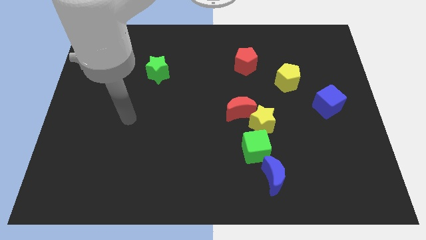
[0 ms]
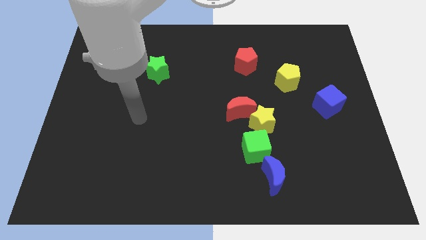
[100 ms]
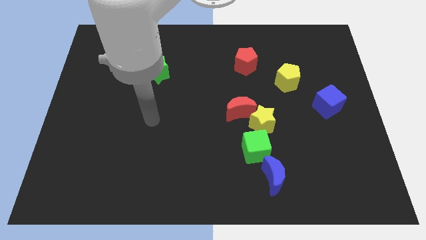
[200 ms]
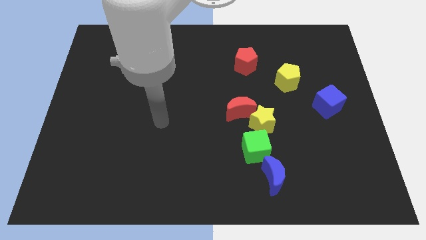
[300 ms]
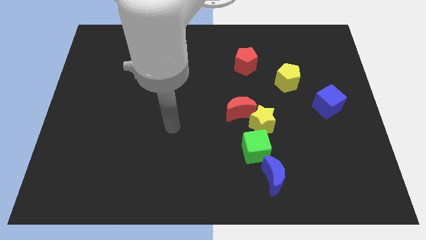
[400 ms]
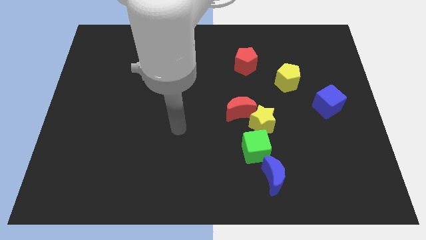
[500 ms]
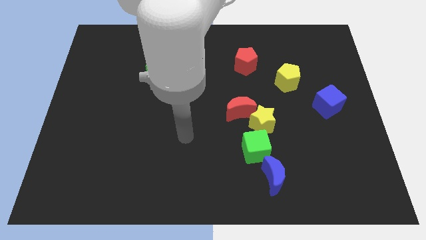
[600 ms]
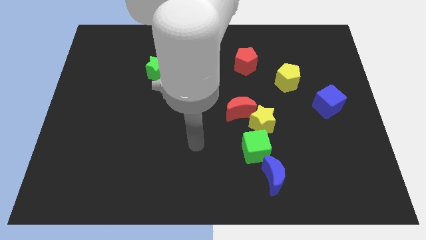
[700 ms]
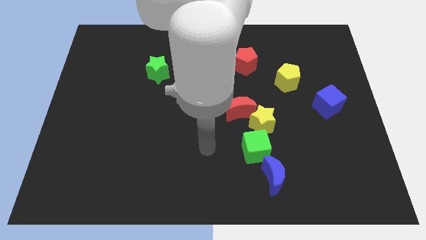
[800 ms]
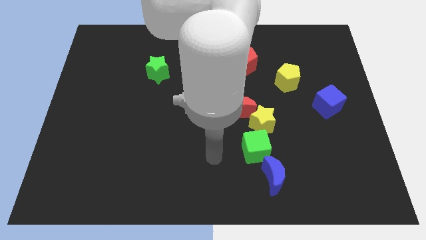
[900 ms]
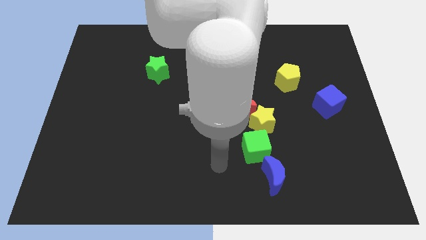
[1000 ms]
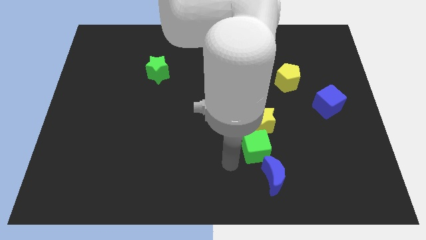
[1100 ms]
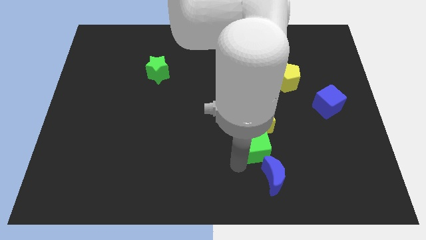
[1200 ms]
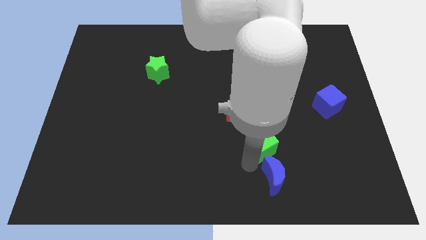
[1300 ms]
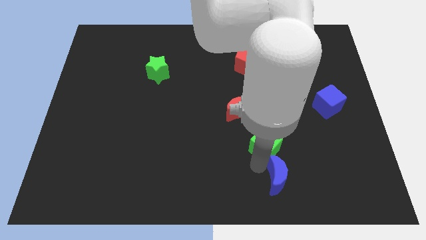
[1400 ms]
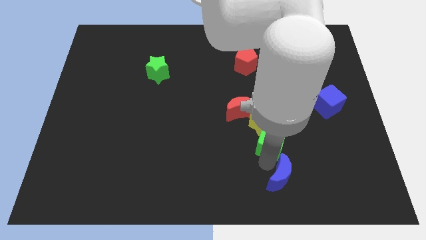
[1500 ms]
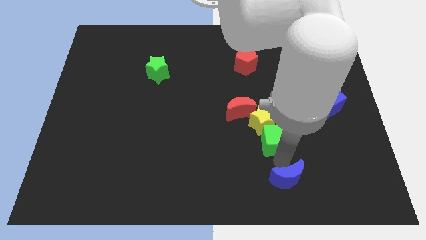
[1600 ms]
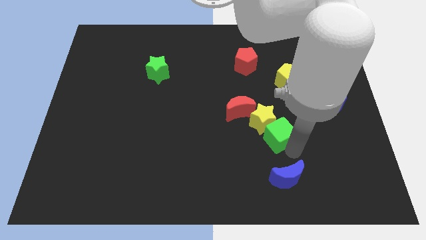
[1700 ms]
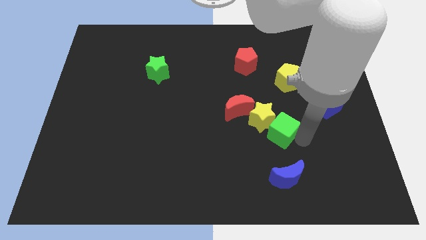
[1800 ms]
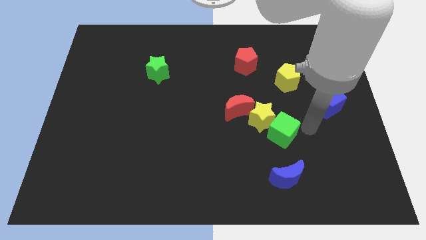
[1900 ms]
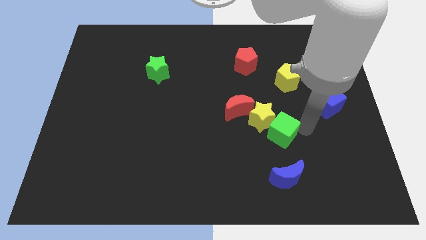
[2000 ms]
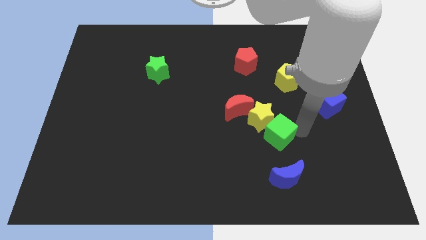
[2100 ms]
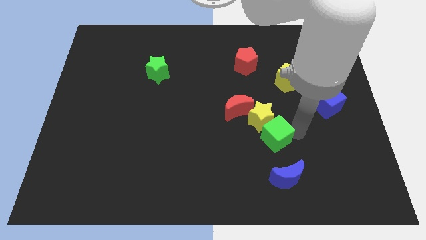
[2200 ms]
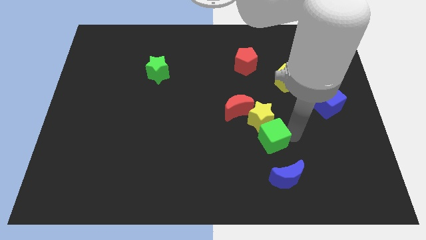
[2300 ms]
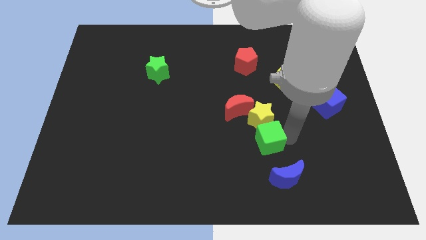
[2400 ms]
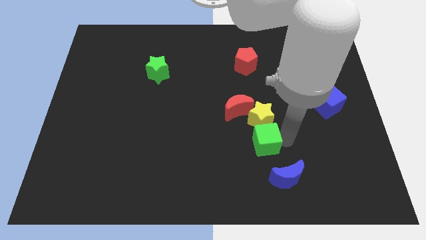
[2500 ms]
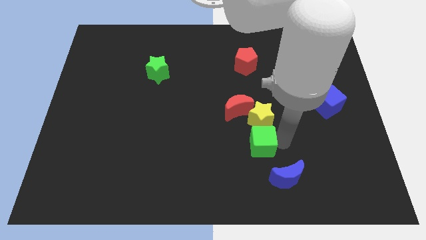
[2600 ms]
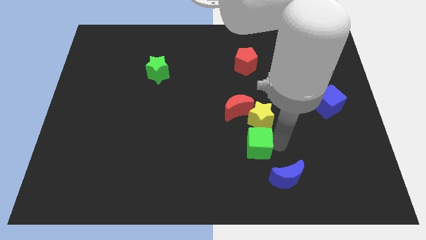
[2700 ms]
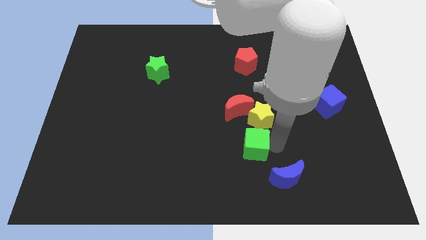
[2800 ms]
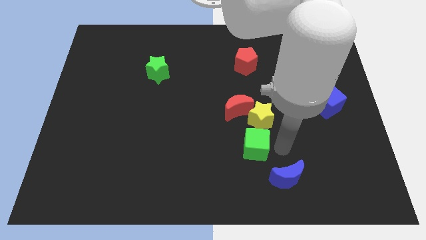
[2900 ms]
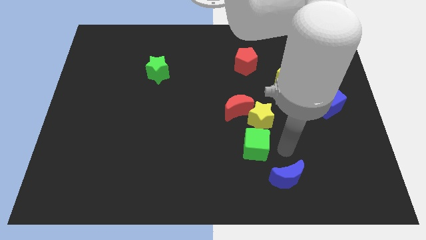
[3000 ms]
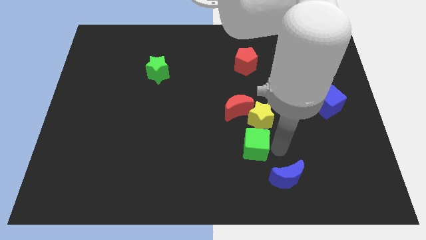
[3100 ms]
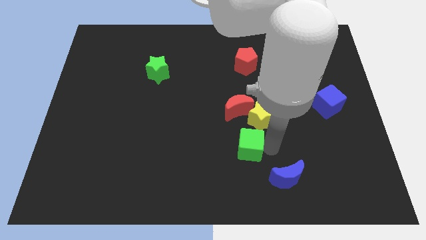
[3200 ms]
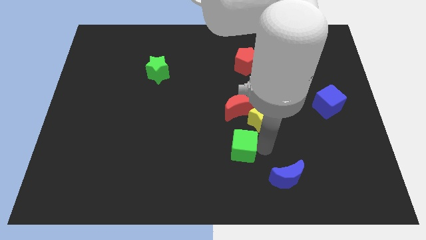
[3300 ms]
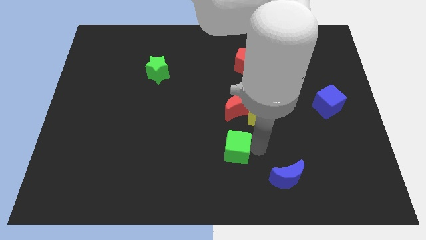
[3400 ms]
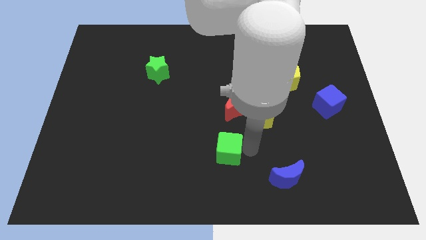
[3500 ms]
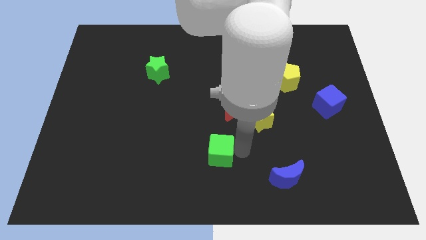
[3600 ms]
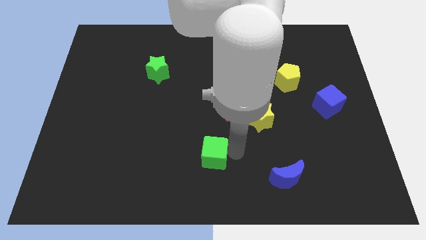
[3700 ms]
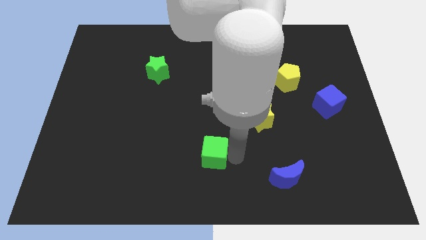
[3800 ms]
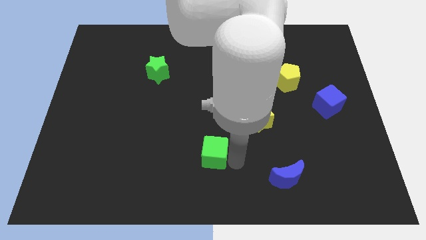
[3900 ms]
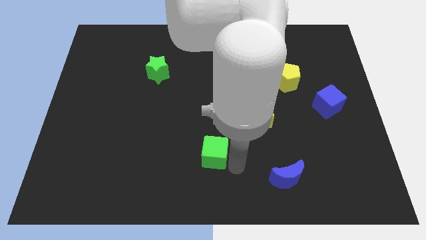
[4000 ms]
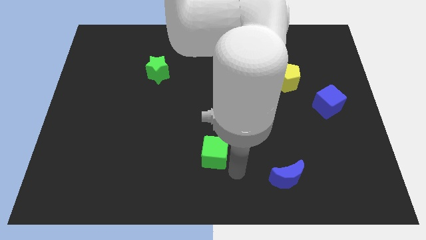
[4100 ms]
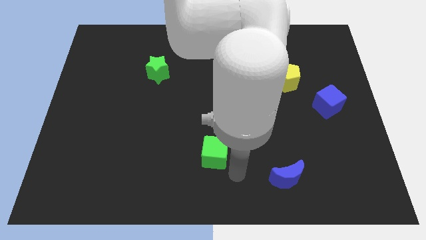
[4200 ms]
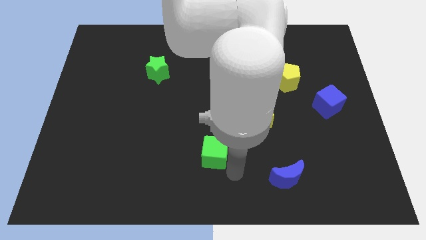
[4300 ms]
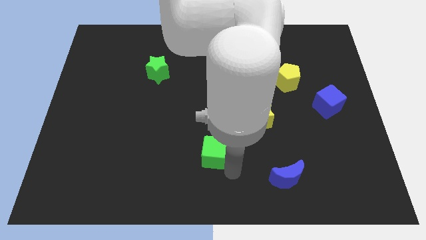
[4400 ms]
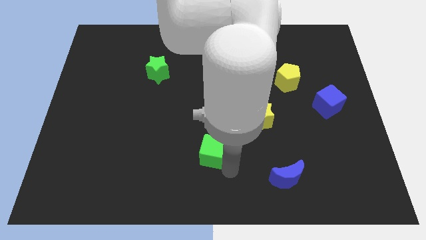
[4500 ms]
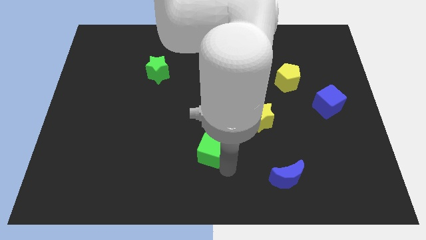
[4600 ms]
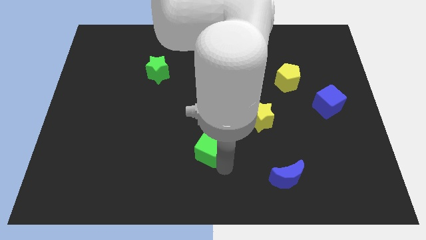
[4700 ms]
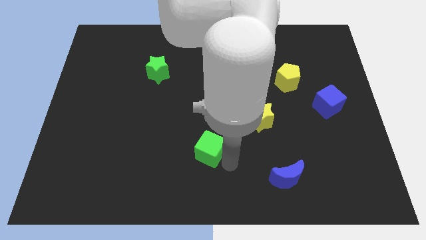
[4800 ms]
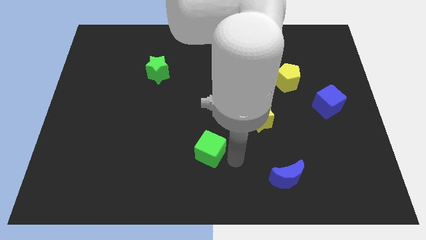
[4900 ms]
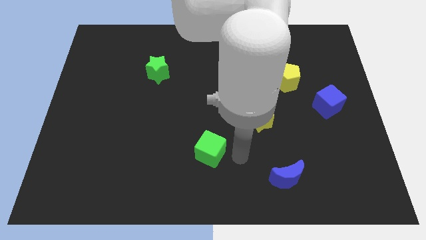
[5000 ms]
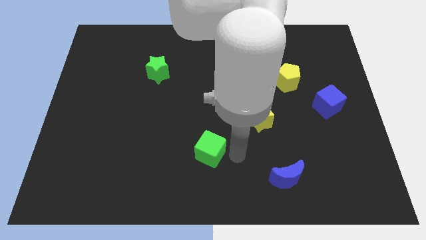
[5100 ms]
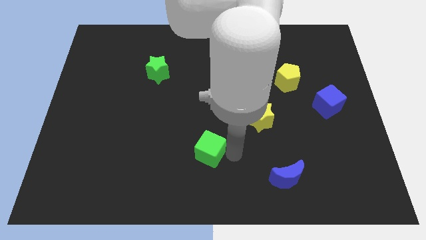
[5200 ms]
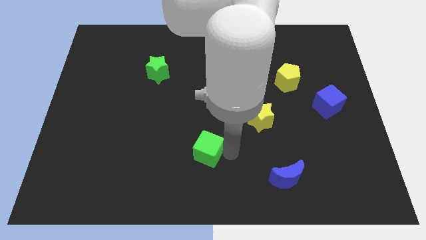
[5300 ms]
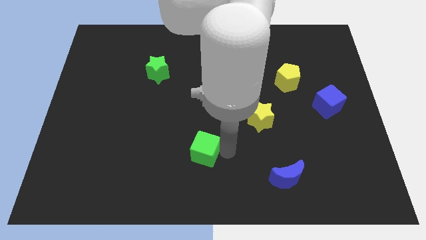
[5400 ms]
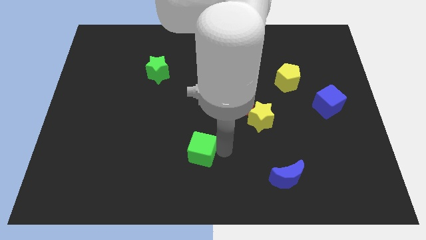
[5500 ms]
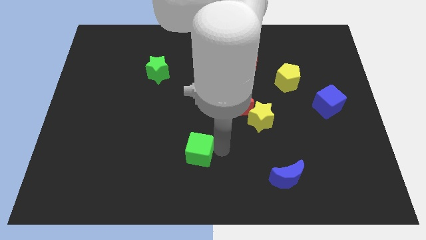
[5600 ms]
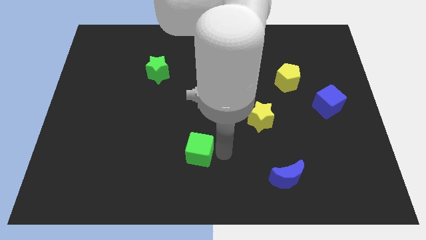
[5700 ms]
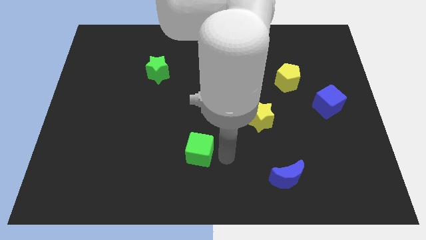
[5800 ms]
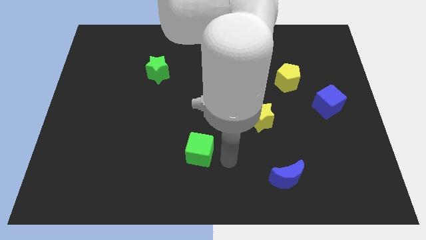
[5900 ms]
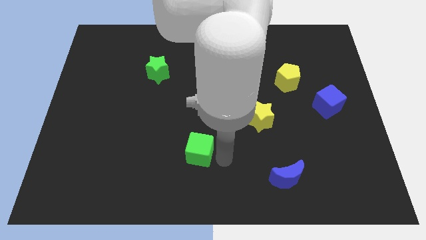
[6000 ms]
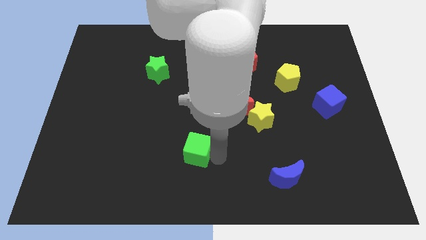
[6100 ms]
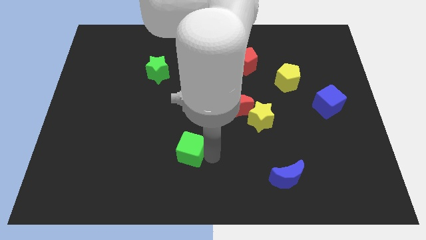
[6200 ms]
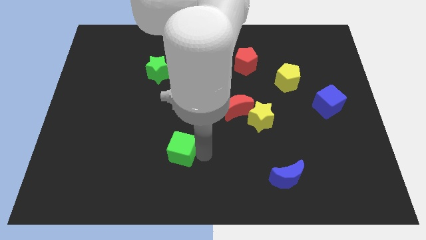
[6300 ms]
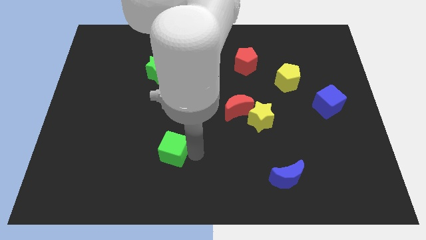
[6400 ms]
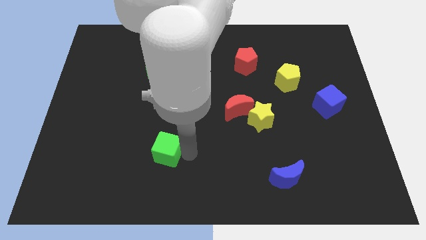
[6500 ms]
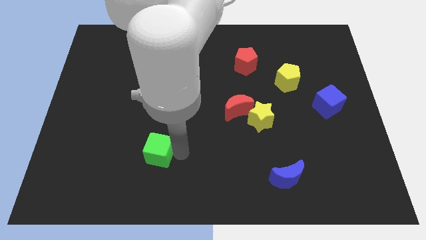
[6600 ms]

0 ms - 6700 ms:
slide the green cube left

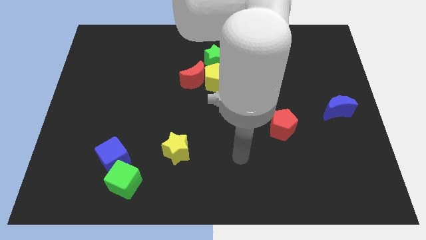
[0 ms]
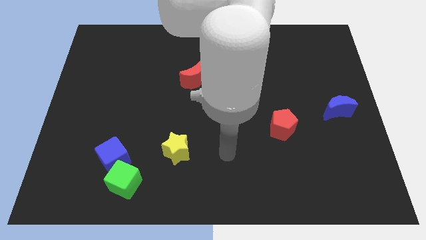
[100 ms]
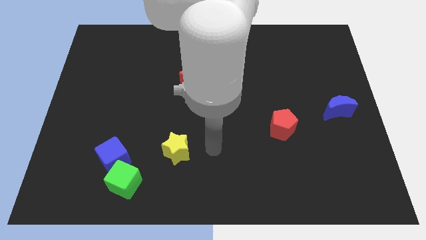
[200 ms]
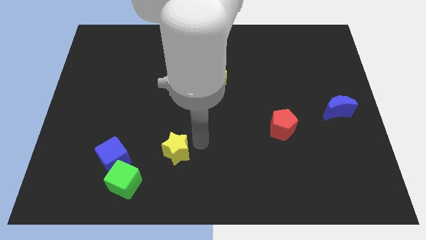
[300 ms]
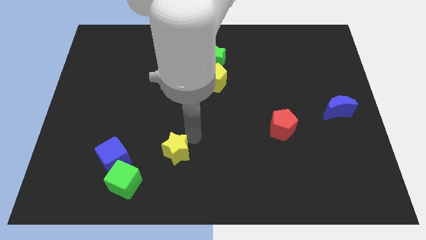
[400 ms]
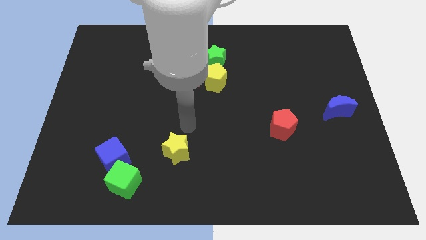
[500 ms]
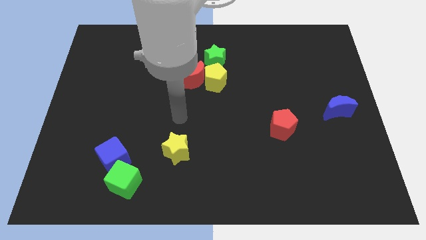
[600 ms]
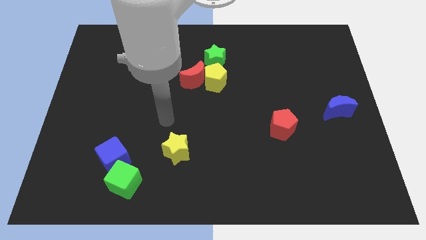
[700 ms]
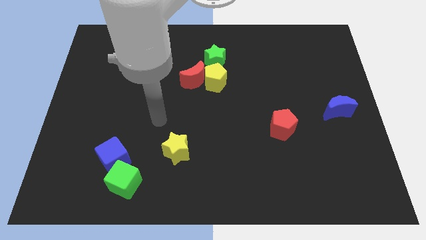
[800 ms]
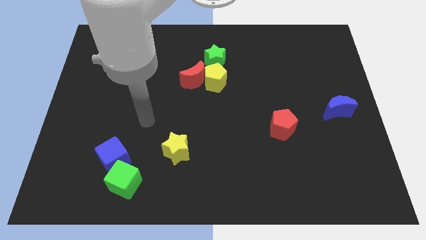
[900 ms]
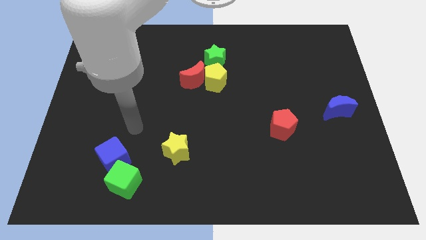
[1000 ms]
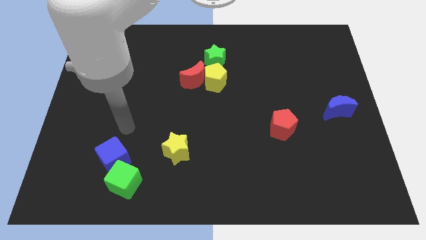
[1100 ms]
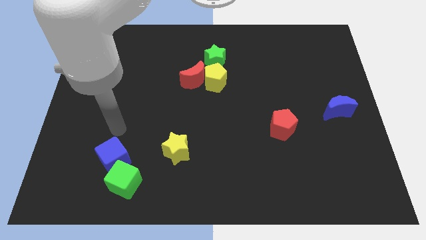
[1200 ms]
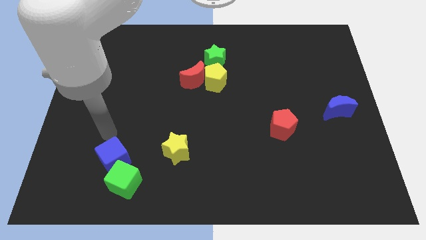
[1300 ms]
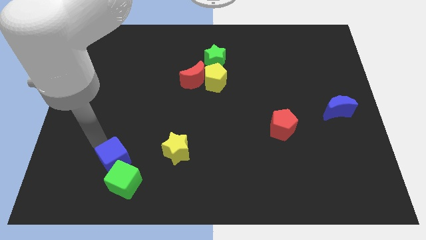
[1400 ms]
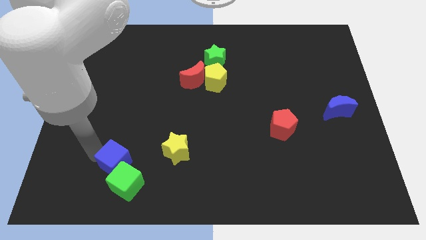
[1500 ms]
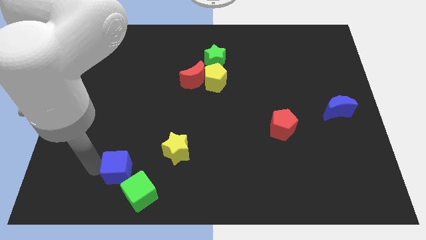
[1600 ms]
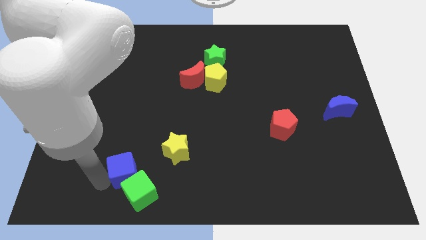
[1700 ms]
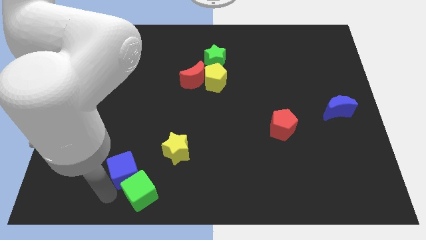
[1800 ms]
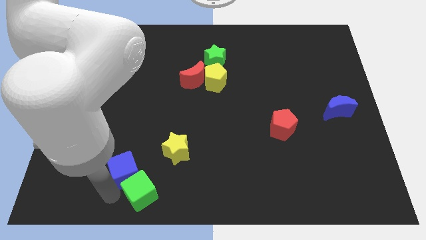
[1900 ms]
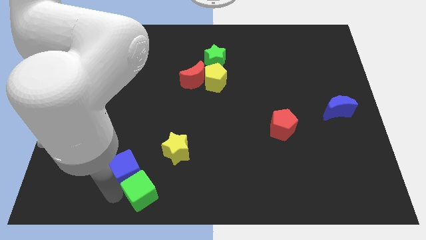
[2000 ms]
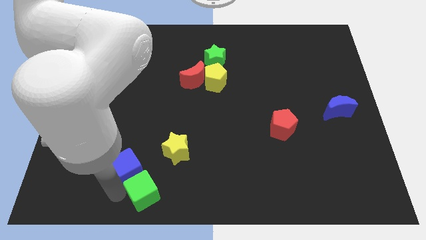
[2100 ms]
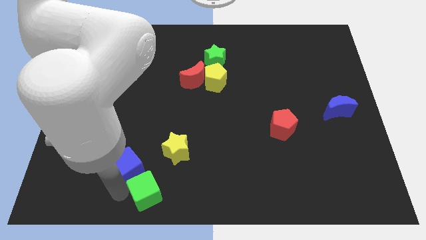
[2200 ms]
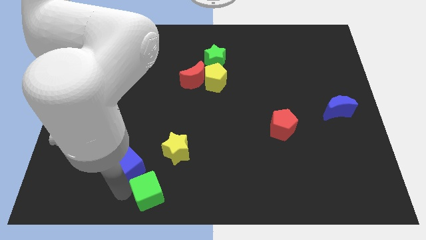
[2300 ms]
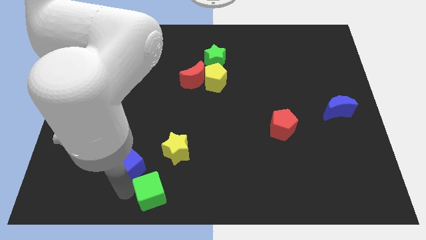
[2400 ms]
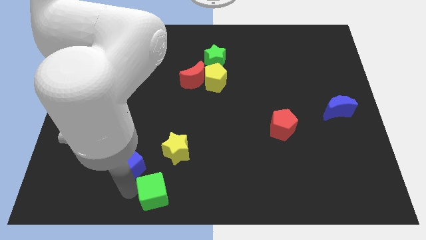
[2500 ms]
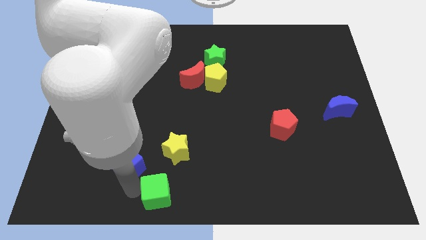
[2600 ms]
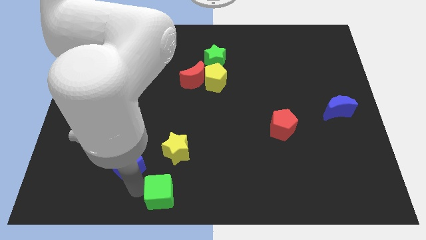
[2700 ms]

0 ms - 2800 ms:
slightly push the green cube to the right
